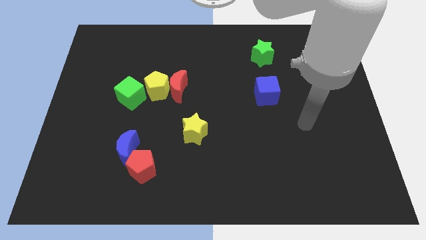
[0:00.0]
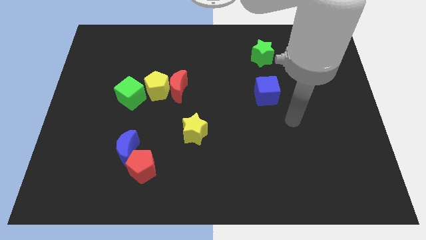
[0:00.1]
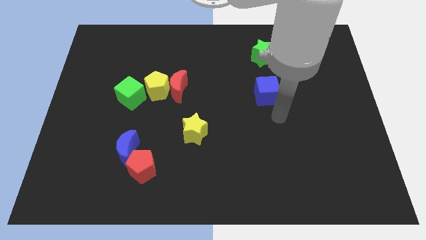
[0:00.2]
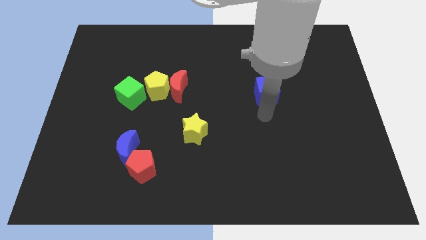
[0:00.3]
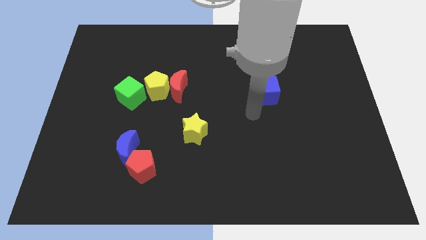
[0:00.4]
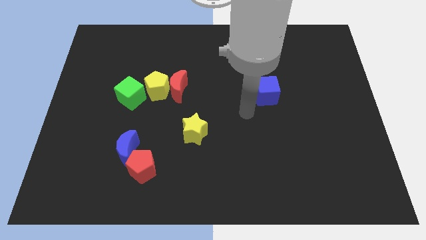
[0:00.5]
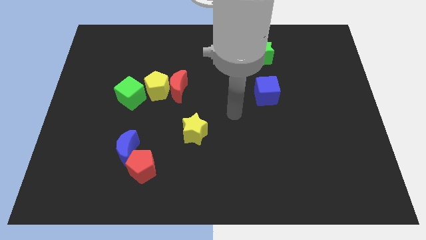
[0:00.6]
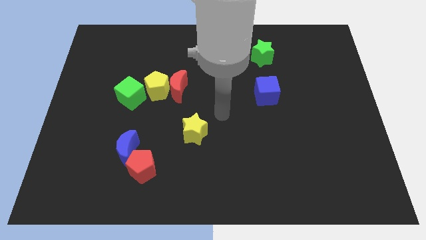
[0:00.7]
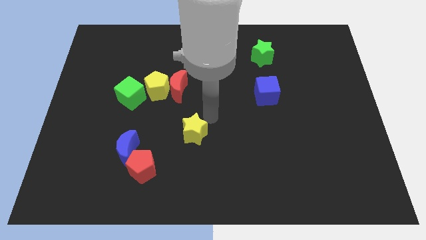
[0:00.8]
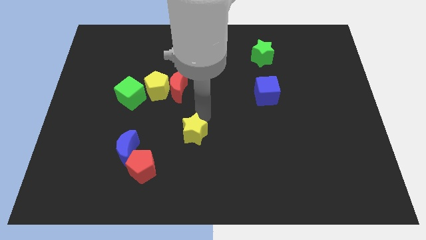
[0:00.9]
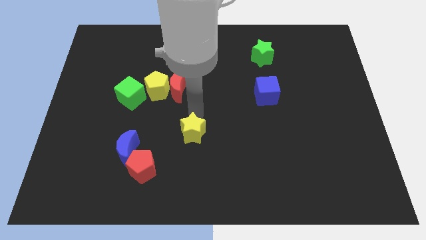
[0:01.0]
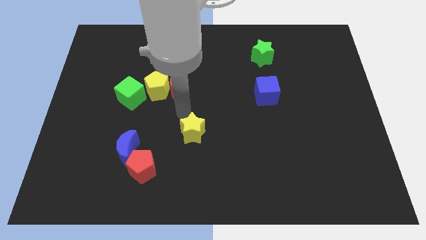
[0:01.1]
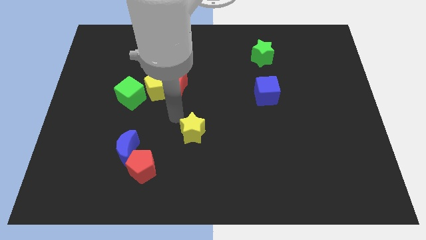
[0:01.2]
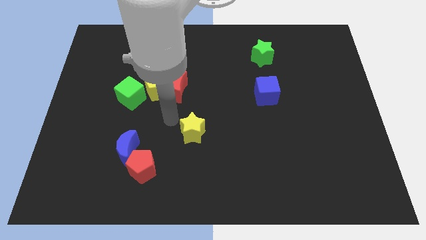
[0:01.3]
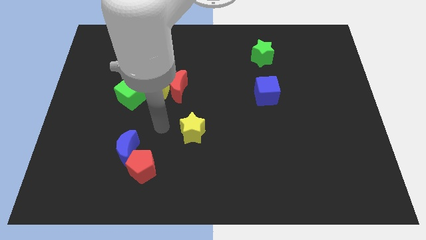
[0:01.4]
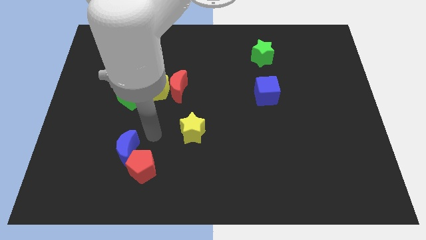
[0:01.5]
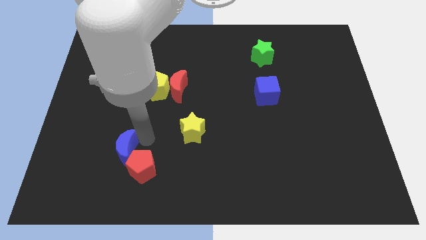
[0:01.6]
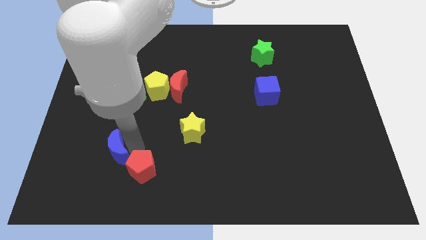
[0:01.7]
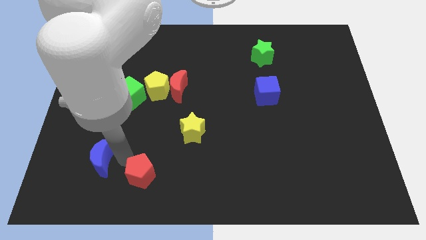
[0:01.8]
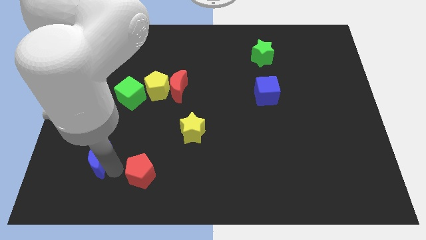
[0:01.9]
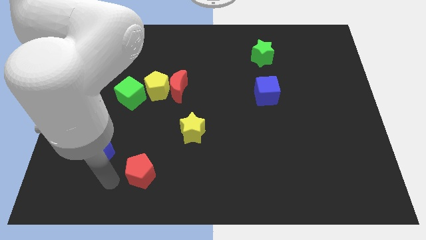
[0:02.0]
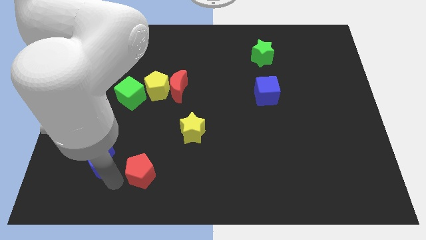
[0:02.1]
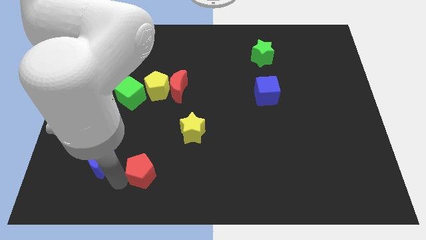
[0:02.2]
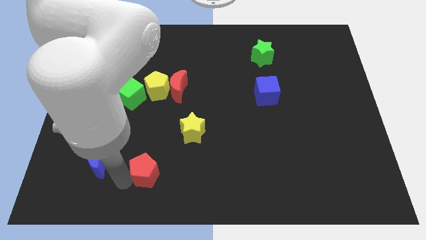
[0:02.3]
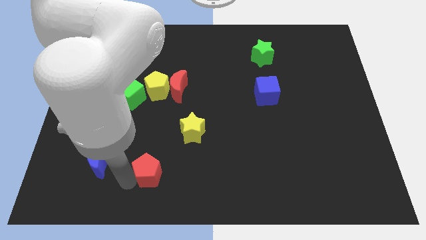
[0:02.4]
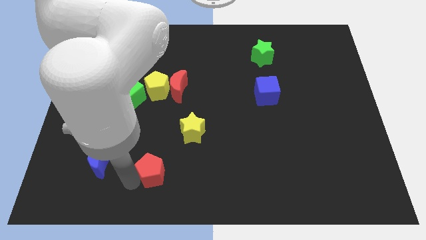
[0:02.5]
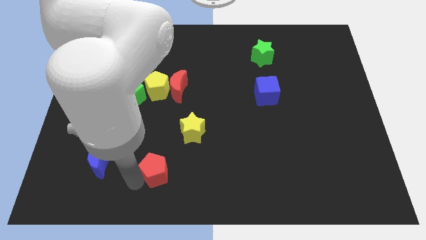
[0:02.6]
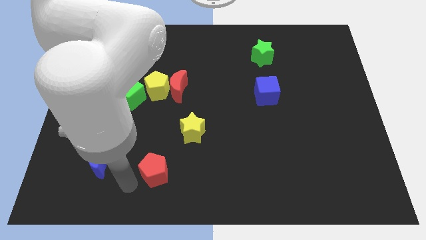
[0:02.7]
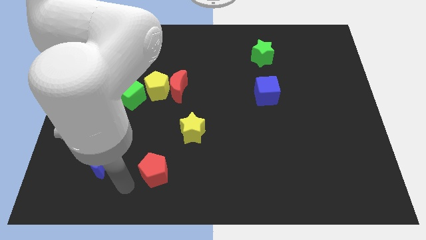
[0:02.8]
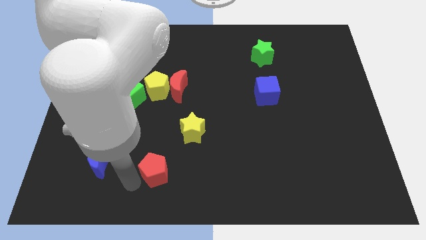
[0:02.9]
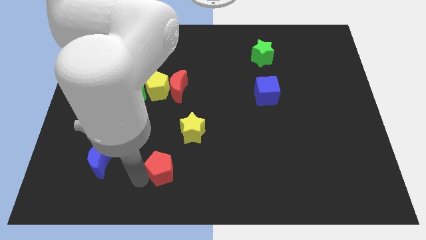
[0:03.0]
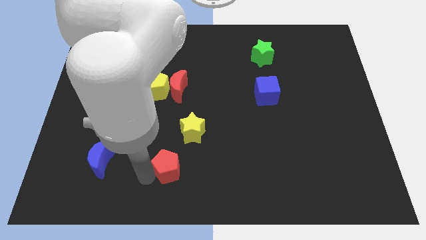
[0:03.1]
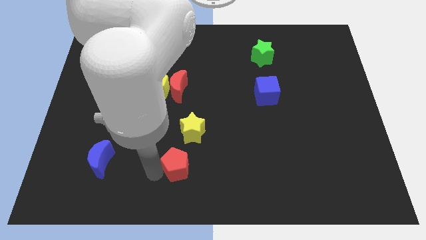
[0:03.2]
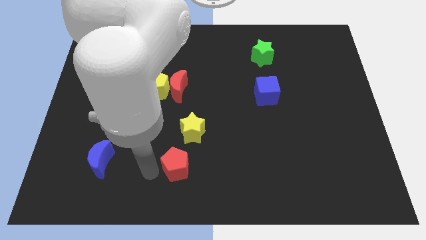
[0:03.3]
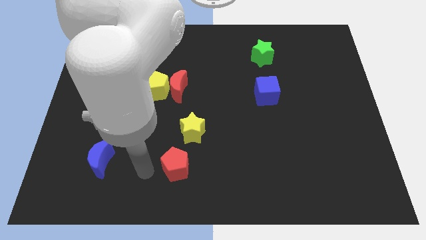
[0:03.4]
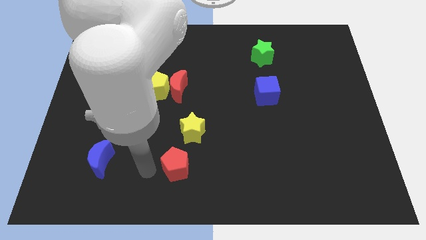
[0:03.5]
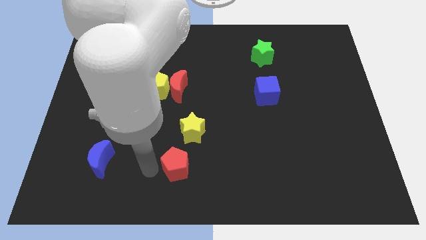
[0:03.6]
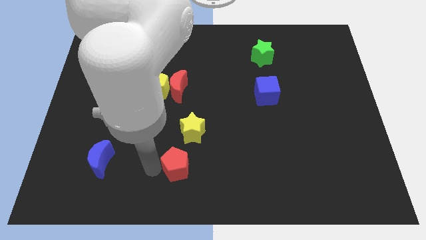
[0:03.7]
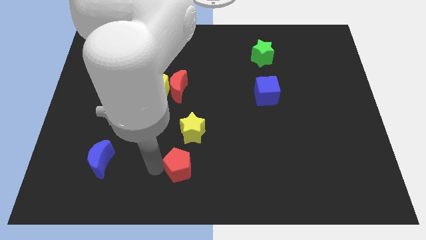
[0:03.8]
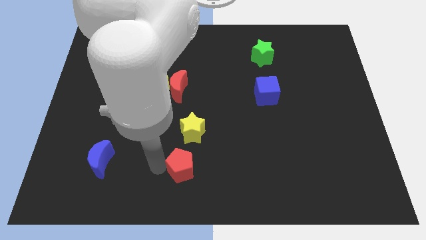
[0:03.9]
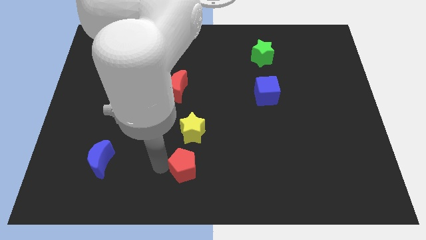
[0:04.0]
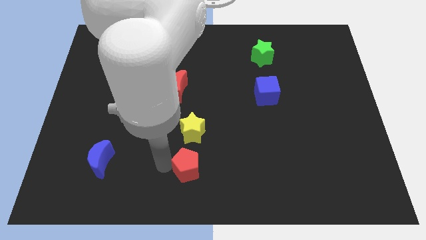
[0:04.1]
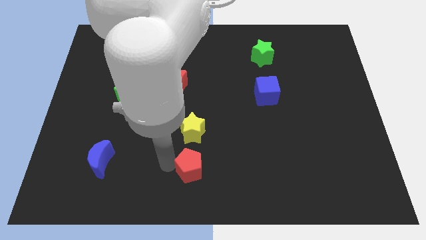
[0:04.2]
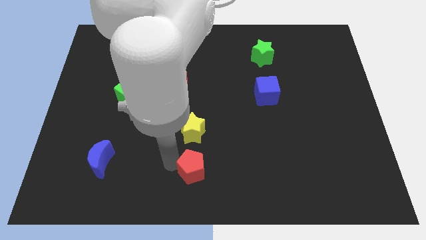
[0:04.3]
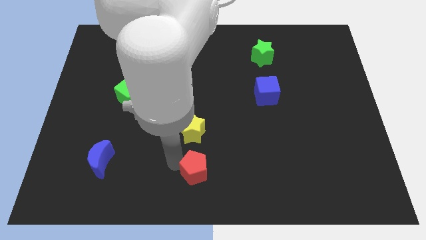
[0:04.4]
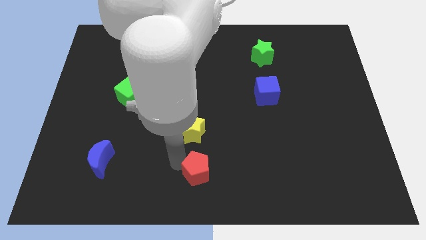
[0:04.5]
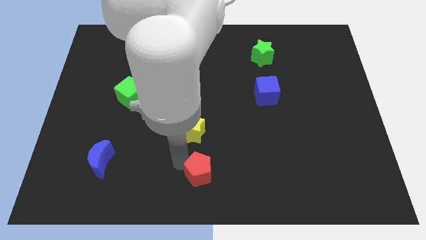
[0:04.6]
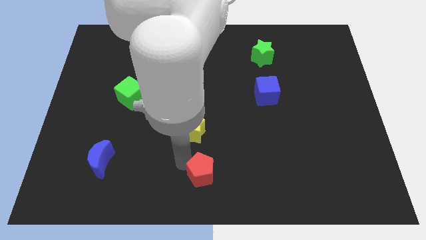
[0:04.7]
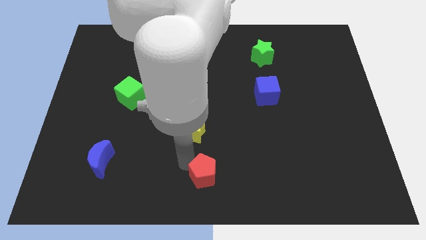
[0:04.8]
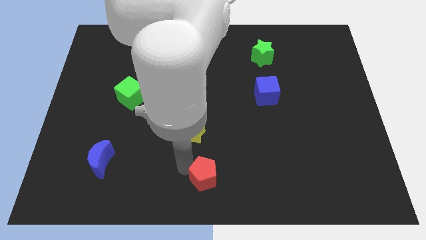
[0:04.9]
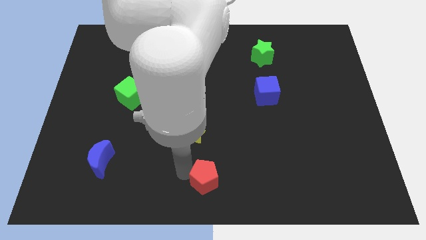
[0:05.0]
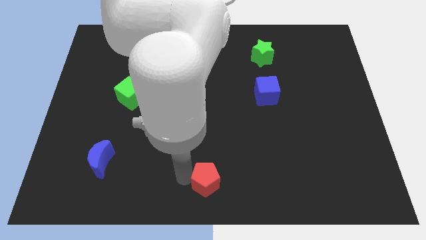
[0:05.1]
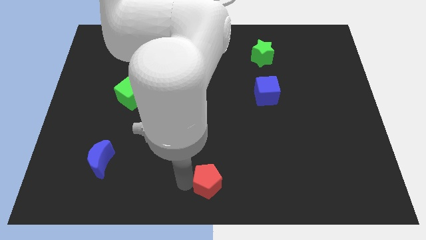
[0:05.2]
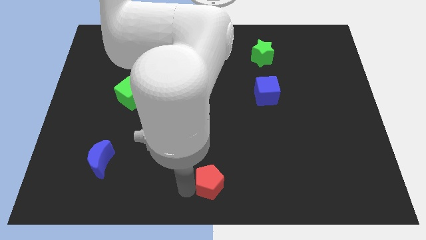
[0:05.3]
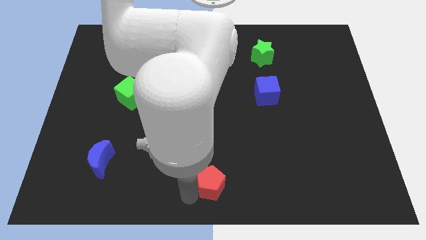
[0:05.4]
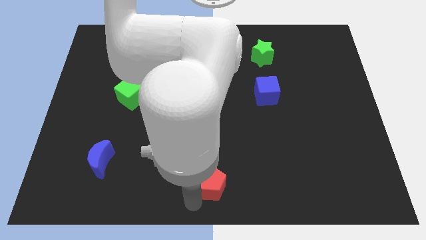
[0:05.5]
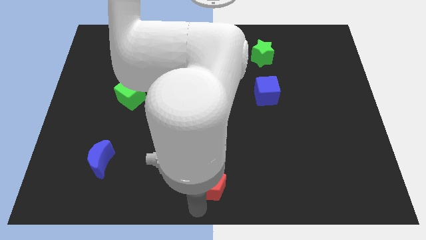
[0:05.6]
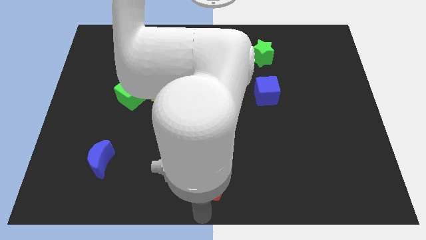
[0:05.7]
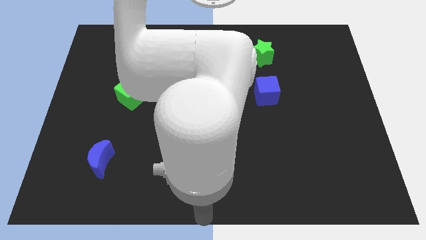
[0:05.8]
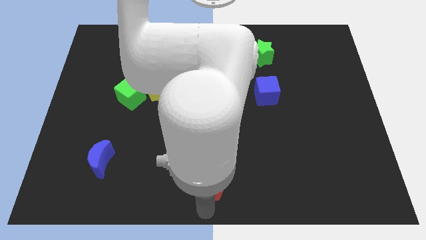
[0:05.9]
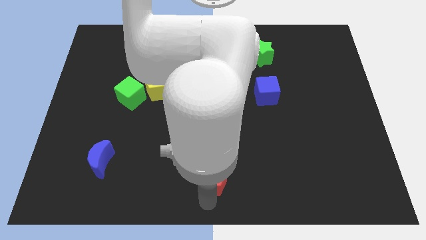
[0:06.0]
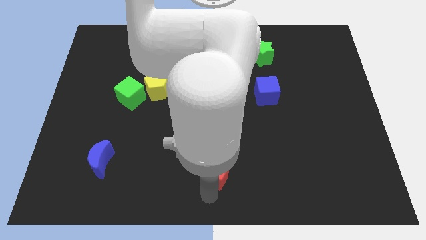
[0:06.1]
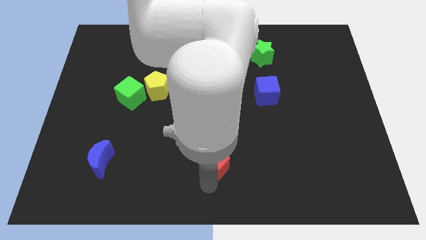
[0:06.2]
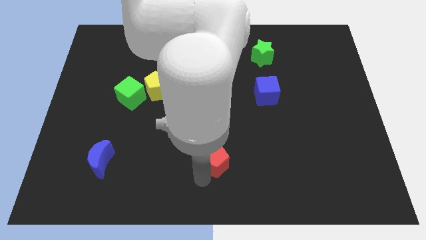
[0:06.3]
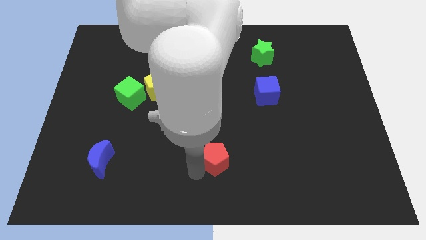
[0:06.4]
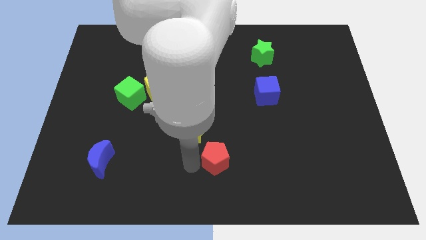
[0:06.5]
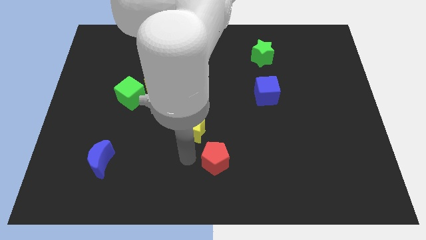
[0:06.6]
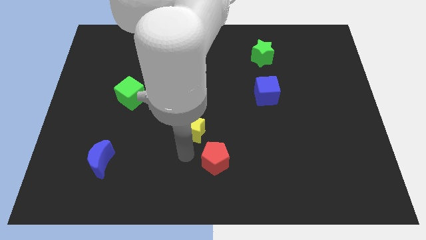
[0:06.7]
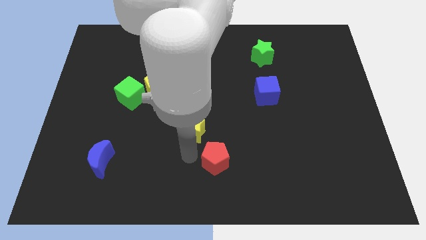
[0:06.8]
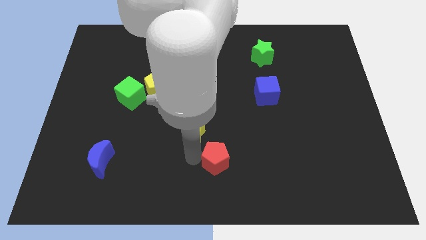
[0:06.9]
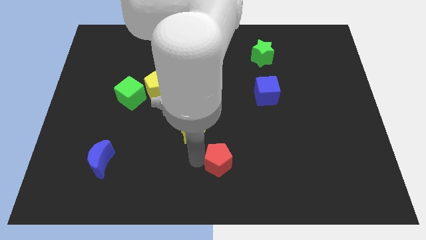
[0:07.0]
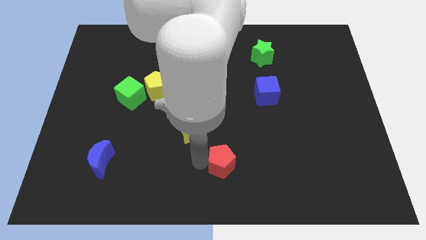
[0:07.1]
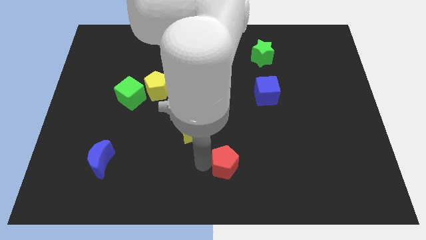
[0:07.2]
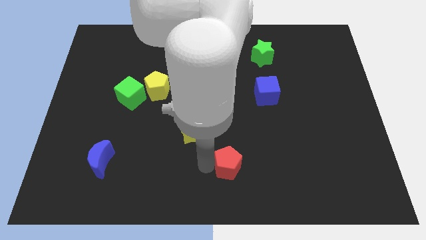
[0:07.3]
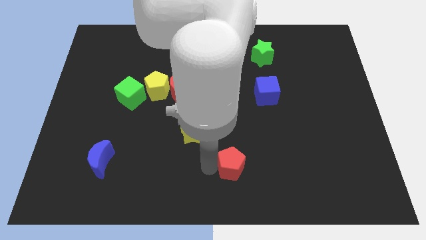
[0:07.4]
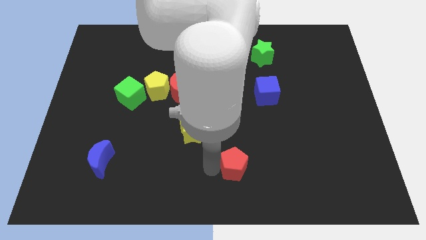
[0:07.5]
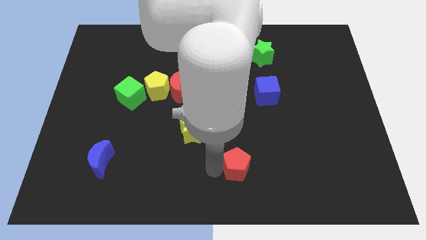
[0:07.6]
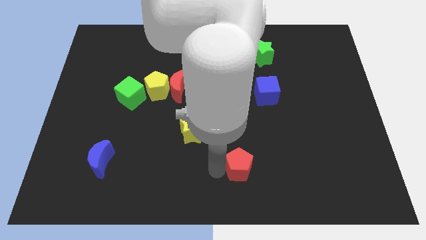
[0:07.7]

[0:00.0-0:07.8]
move the red pentagon right

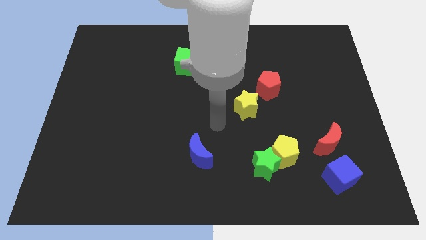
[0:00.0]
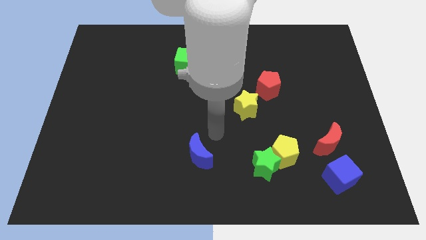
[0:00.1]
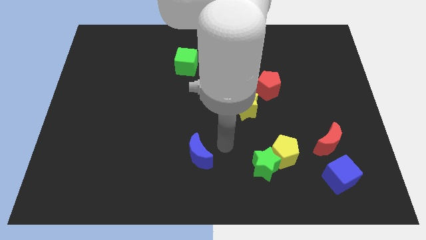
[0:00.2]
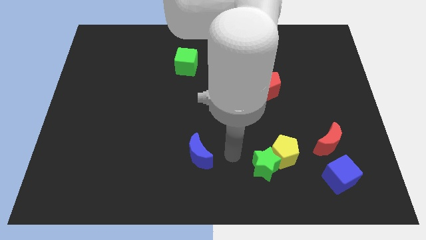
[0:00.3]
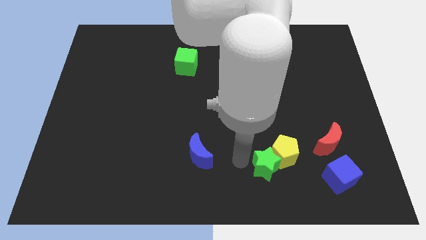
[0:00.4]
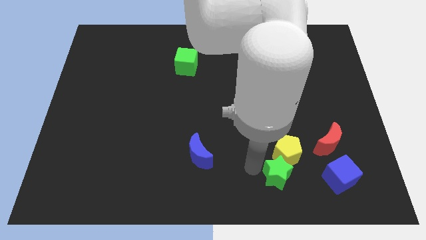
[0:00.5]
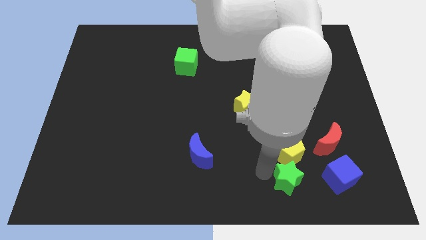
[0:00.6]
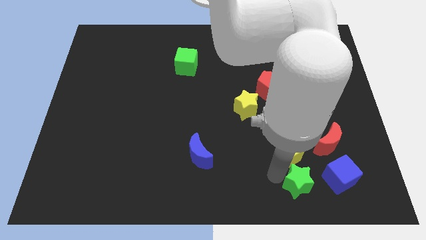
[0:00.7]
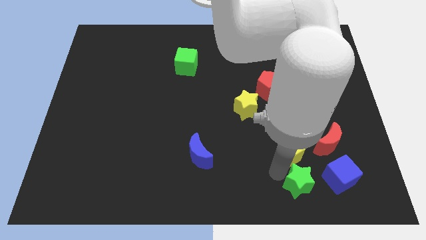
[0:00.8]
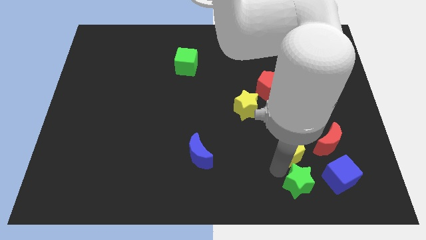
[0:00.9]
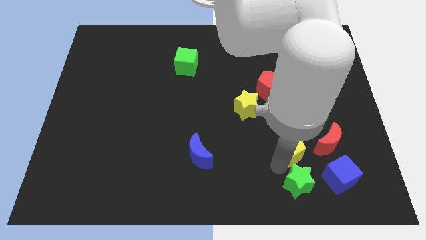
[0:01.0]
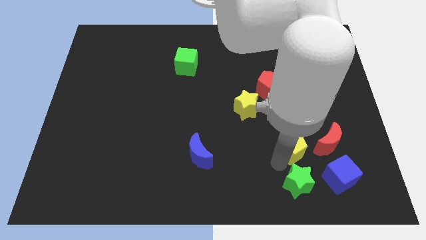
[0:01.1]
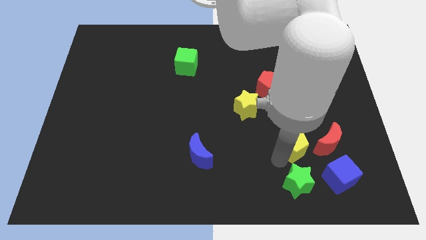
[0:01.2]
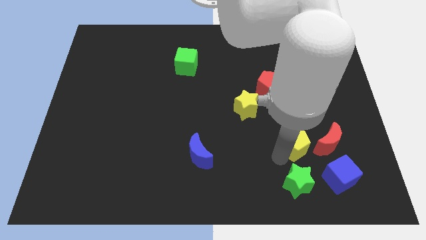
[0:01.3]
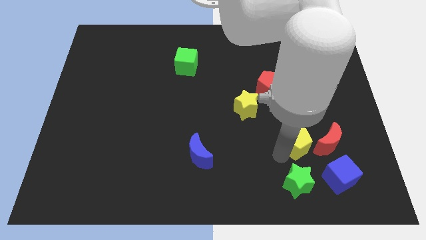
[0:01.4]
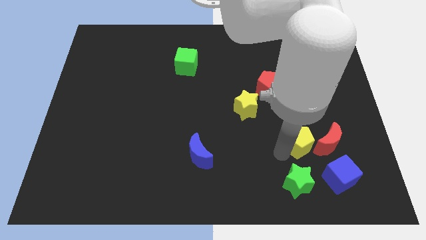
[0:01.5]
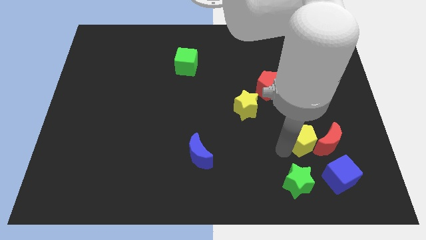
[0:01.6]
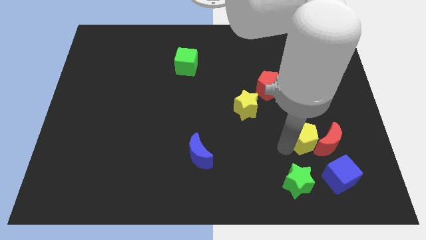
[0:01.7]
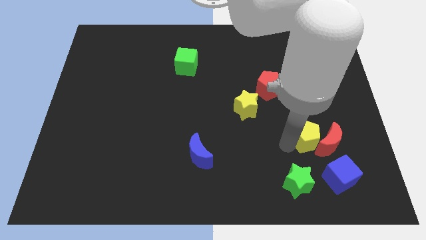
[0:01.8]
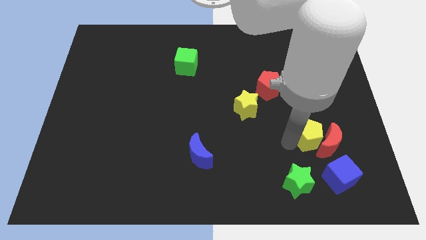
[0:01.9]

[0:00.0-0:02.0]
move the yellow pentagon a bit upwards and right diagonally
